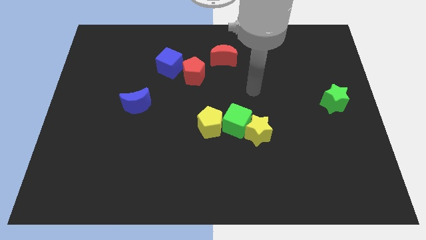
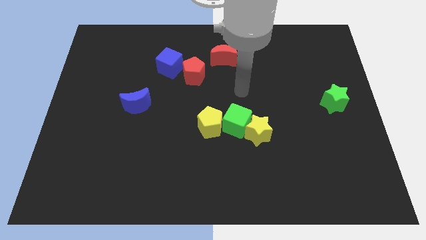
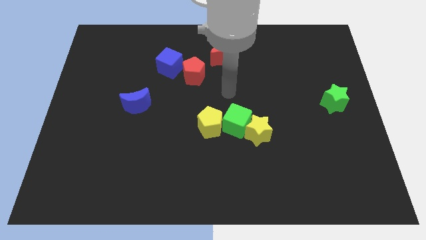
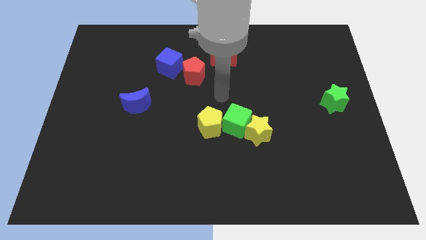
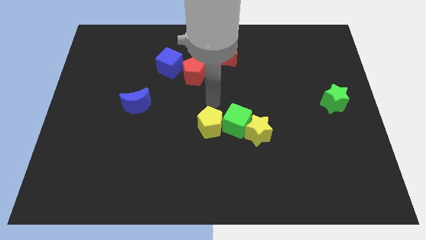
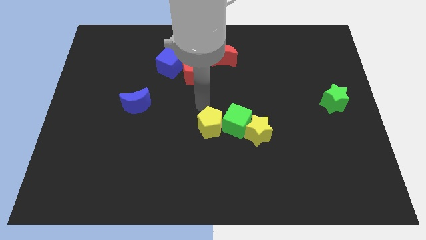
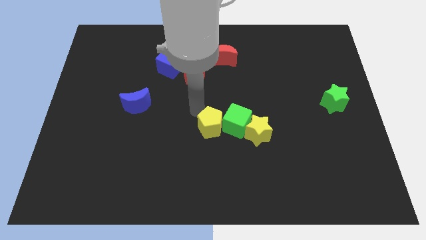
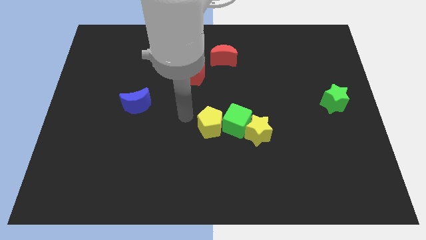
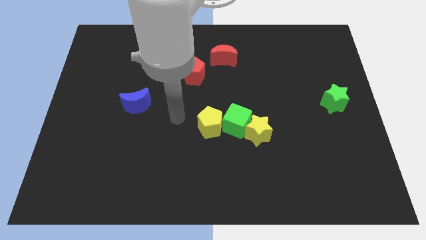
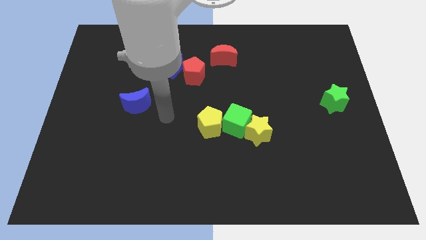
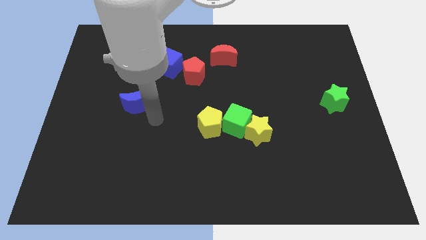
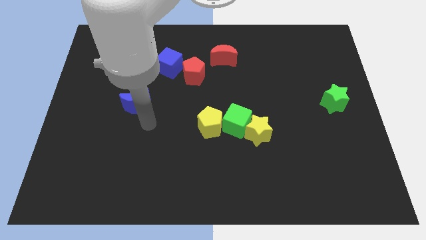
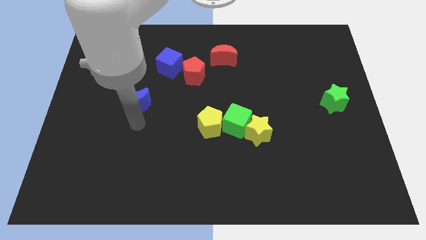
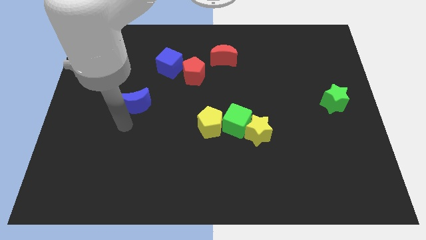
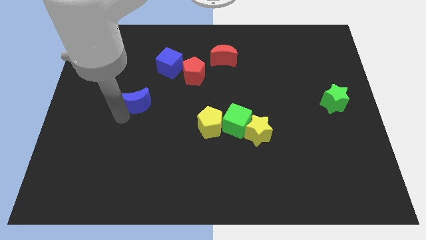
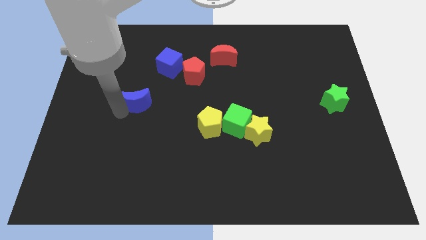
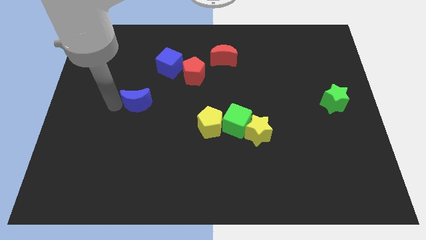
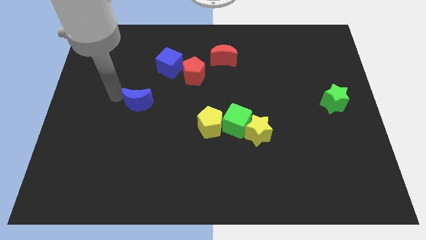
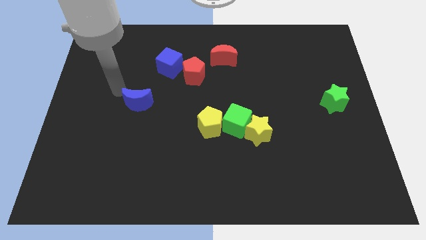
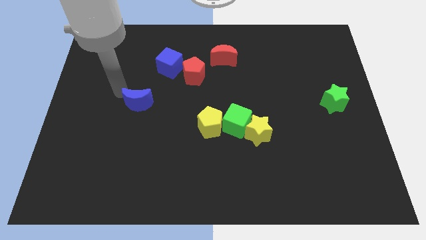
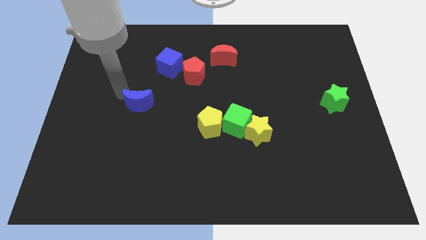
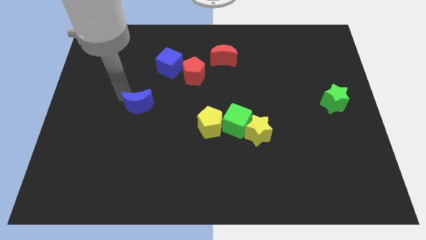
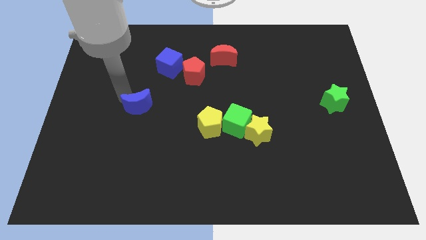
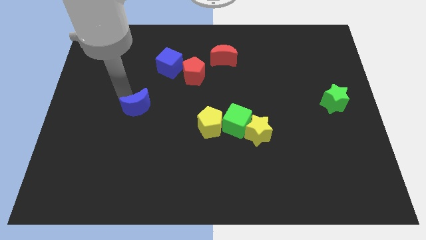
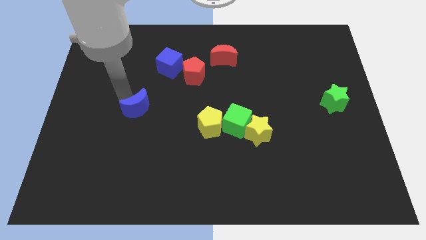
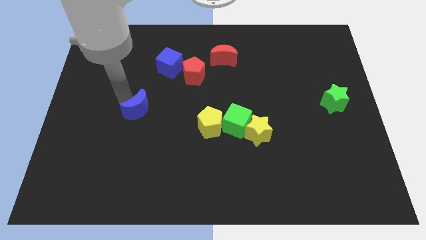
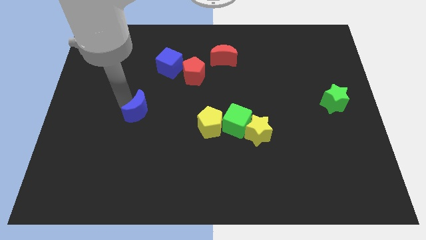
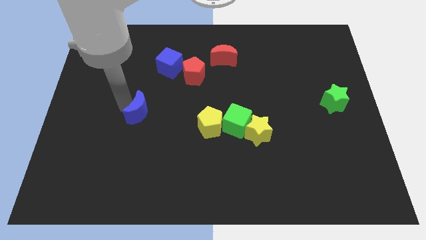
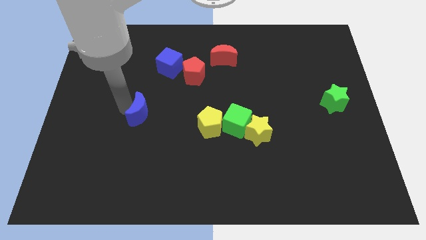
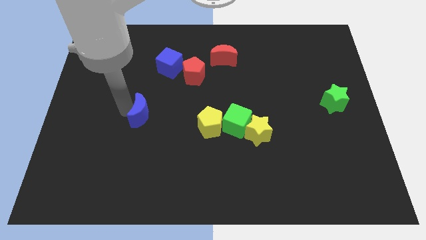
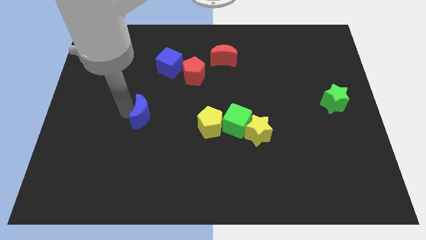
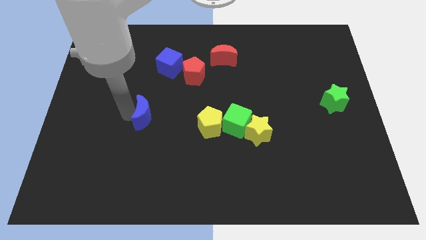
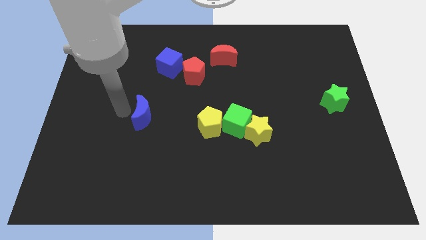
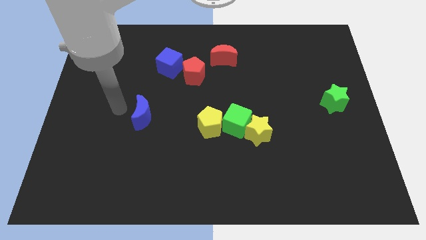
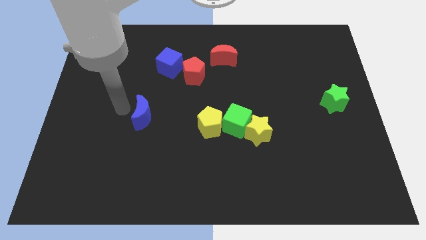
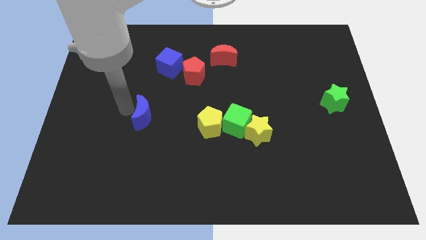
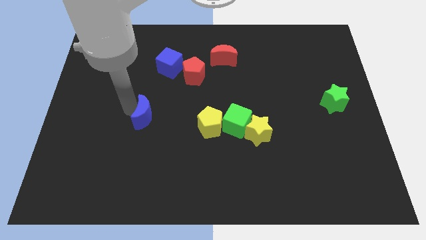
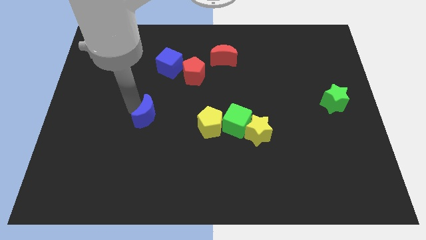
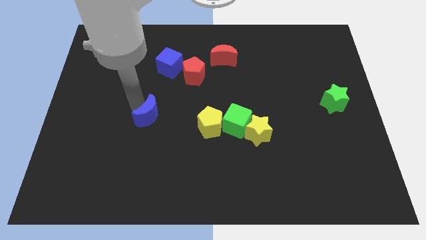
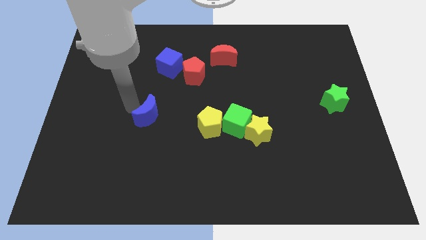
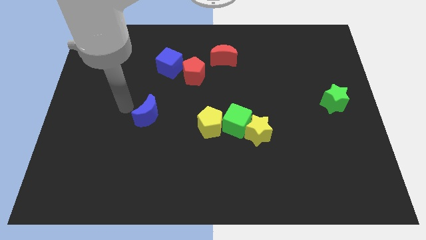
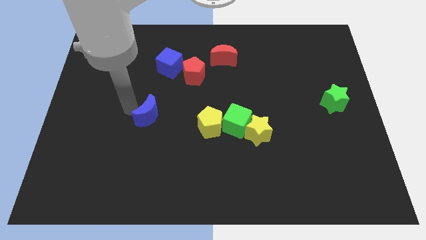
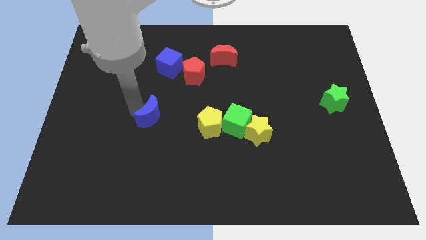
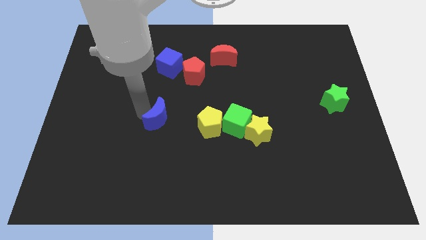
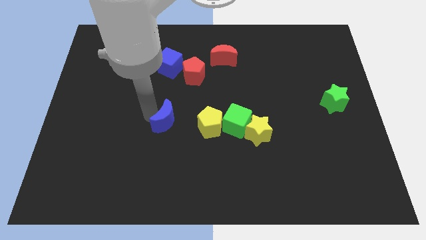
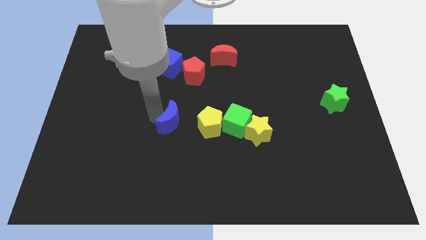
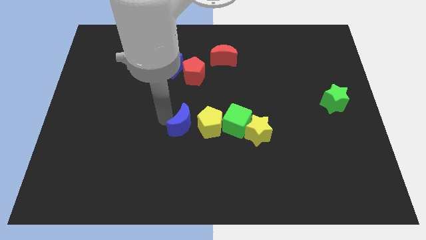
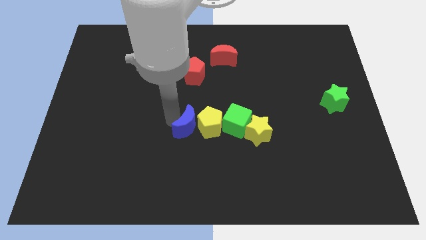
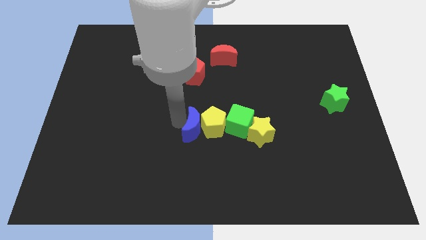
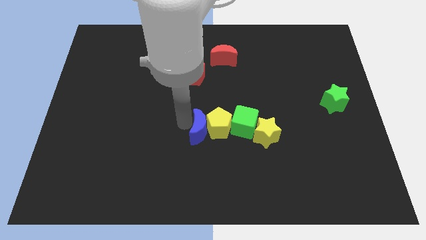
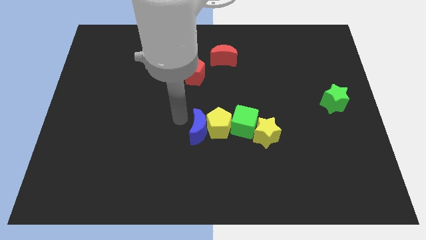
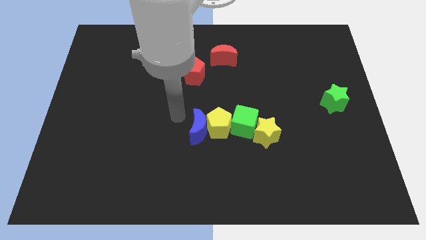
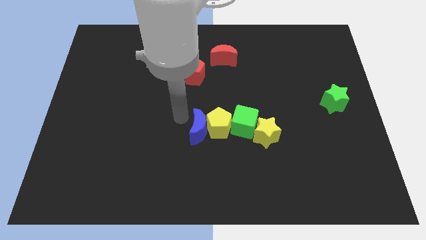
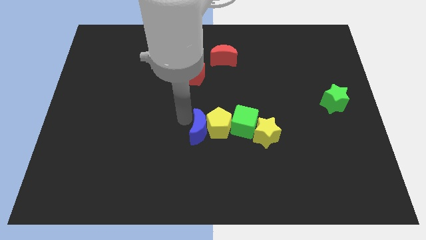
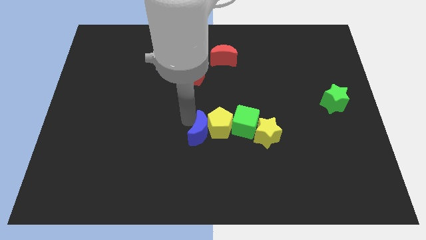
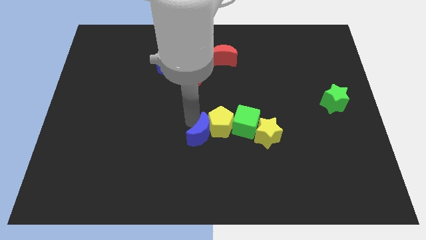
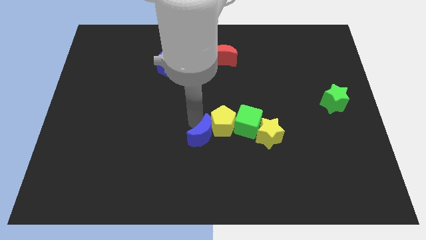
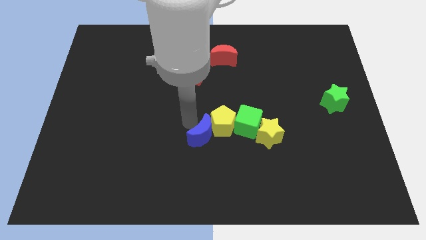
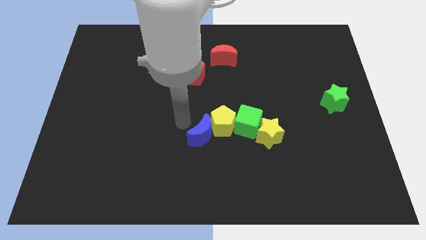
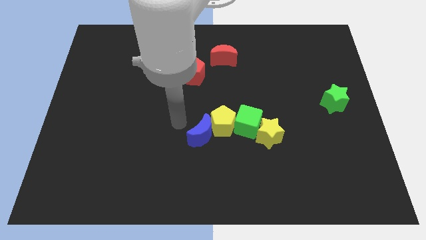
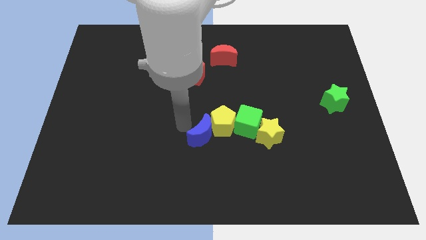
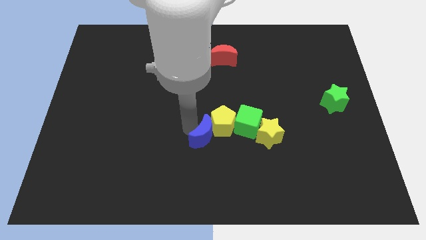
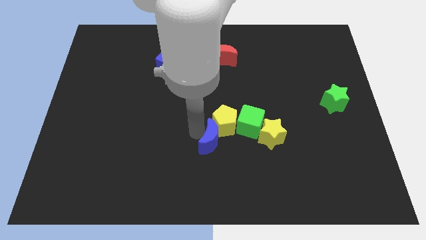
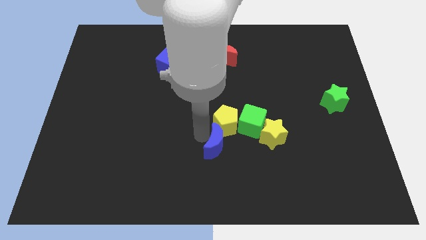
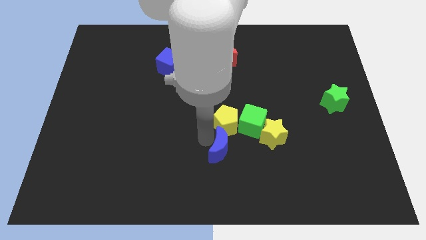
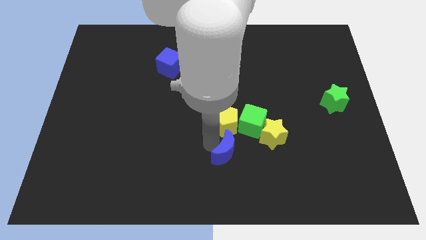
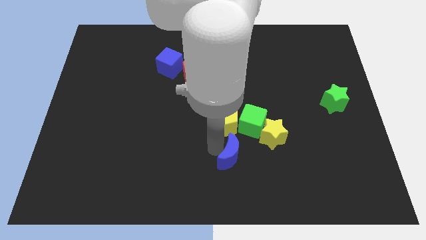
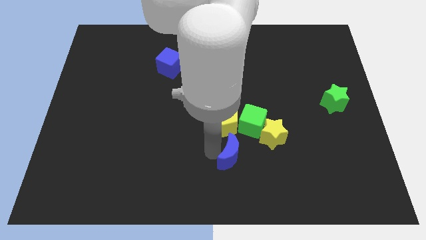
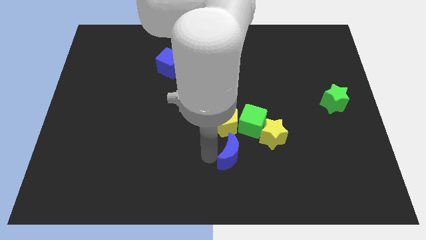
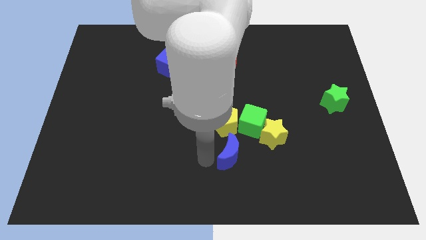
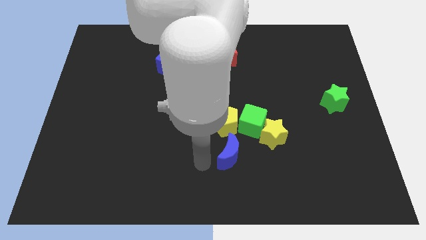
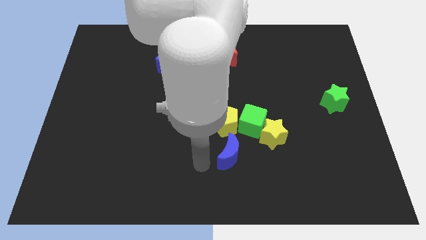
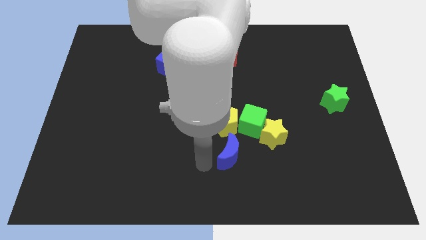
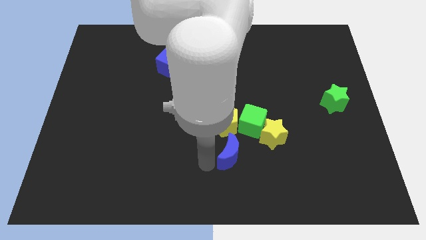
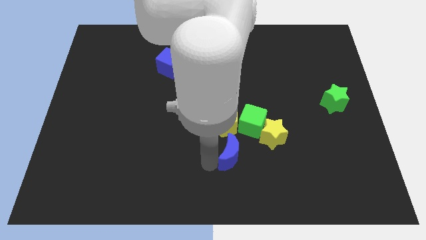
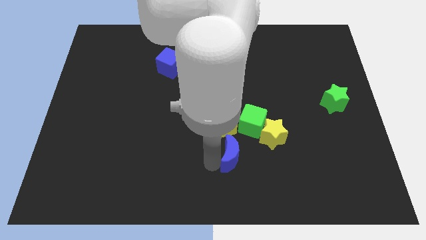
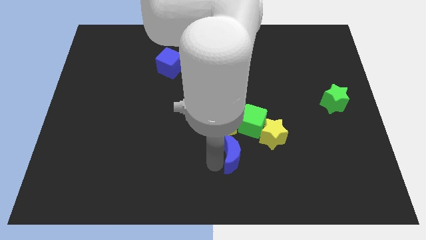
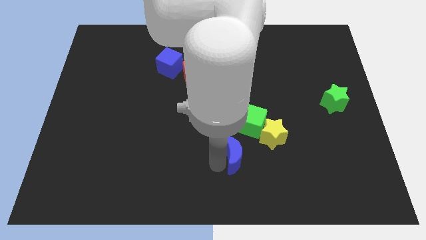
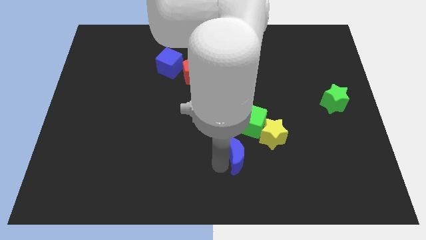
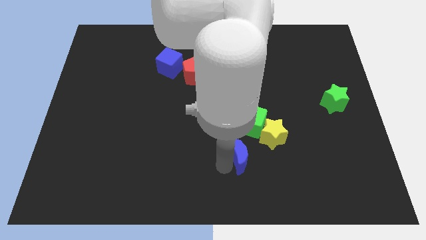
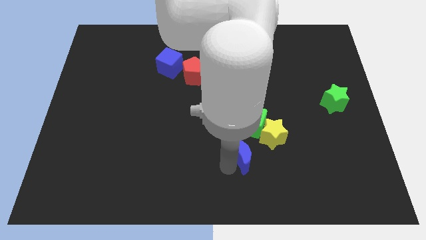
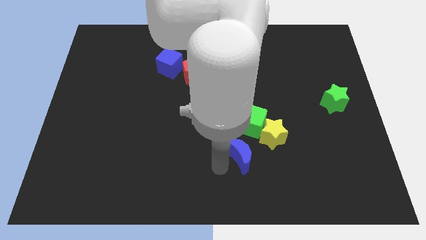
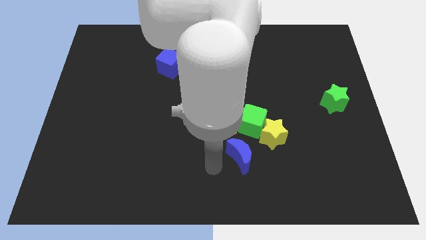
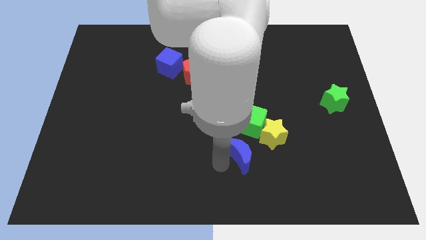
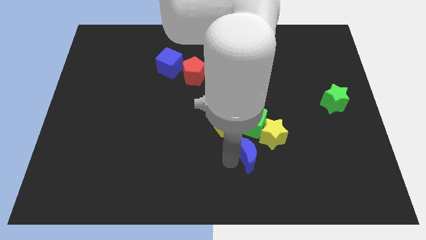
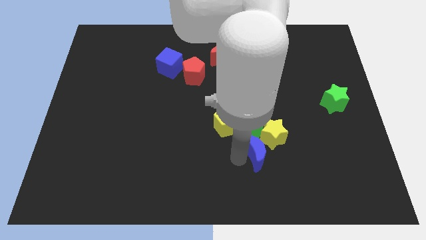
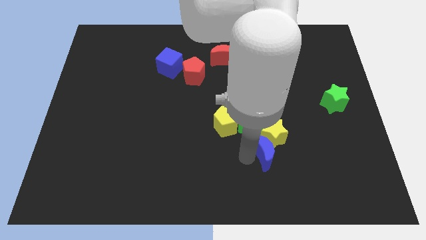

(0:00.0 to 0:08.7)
move the blue moon to the bottom right side of the green cube
